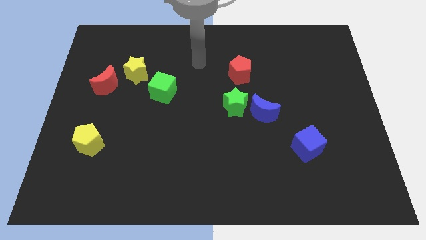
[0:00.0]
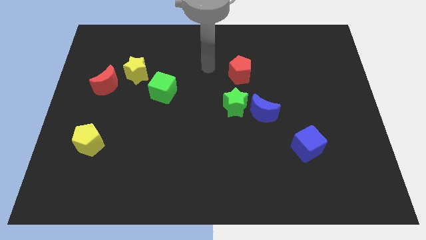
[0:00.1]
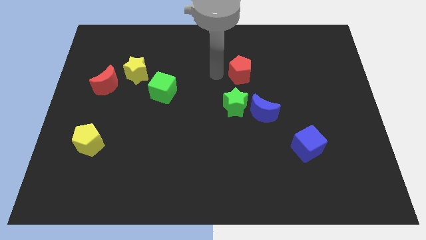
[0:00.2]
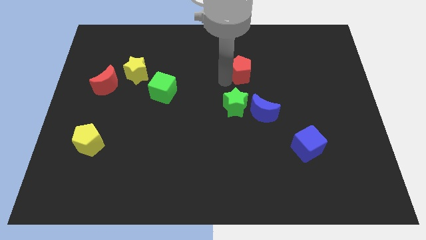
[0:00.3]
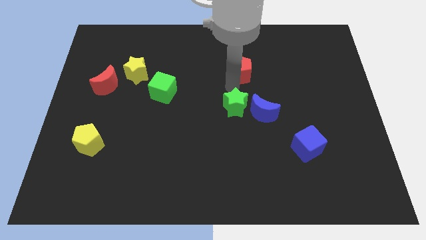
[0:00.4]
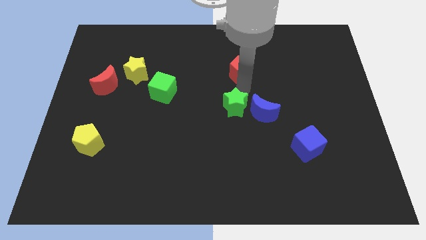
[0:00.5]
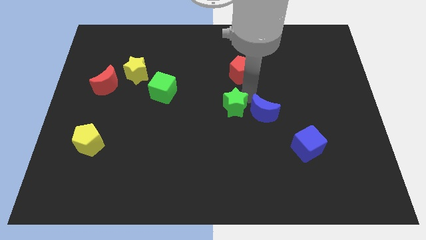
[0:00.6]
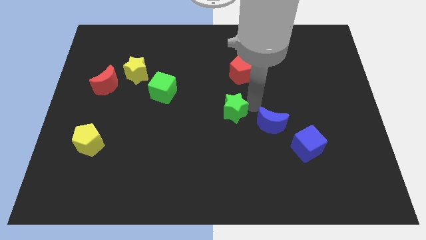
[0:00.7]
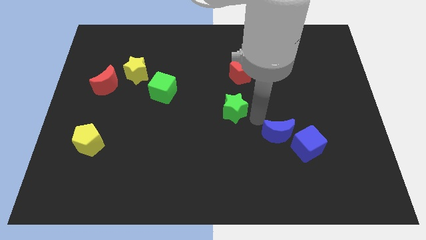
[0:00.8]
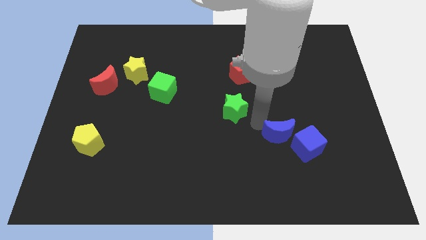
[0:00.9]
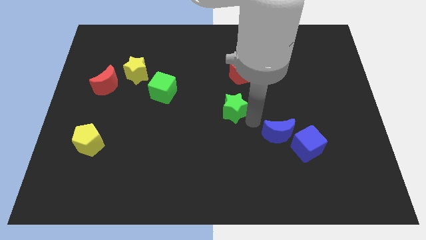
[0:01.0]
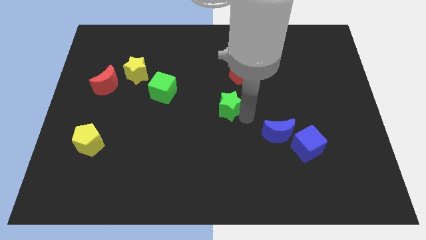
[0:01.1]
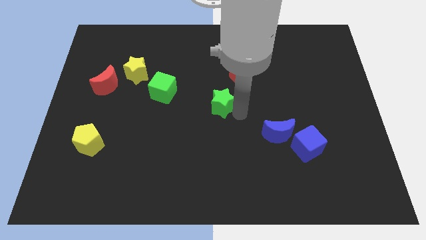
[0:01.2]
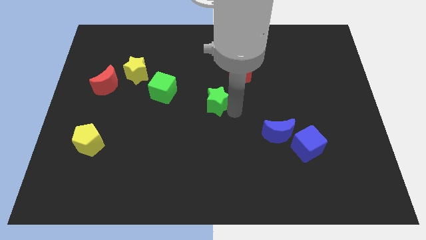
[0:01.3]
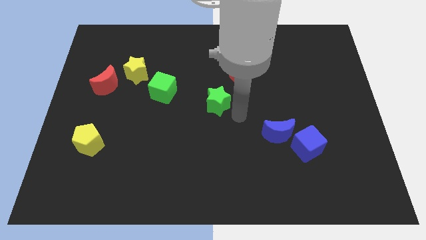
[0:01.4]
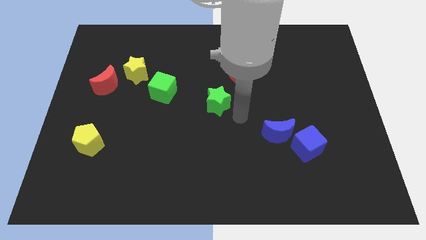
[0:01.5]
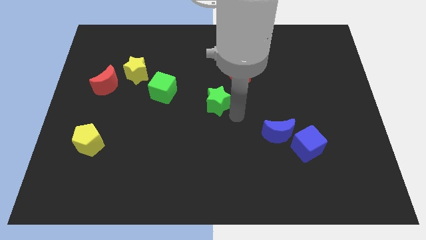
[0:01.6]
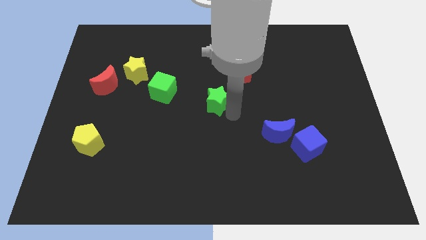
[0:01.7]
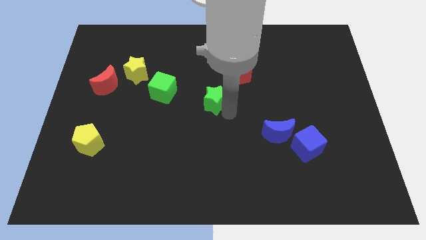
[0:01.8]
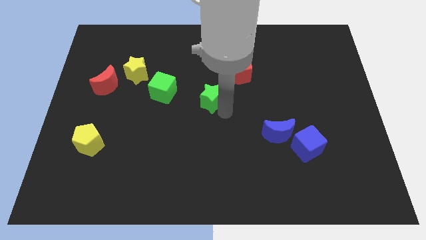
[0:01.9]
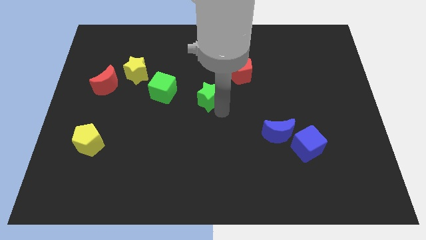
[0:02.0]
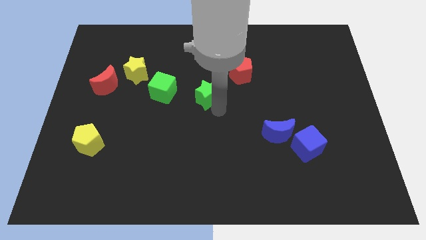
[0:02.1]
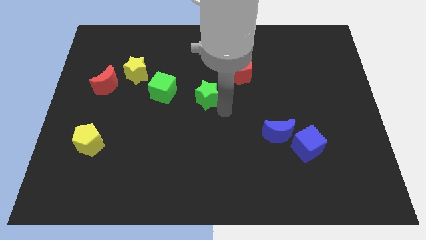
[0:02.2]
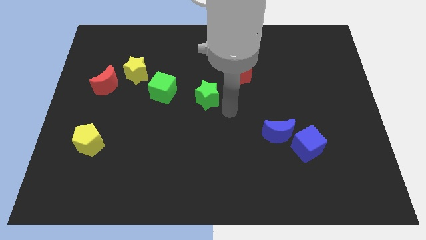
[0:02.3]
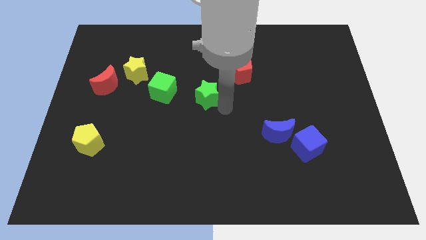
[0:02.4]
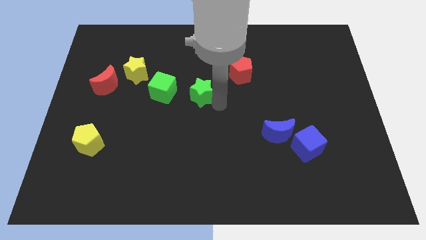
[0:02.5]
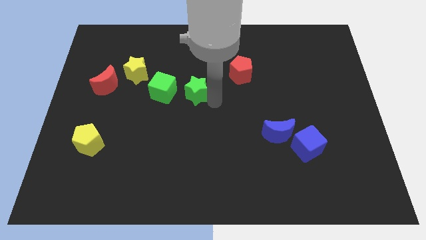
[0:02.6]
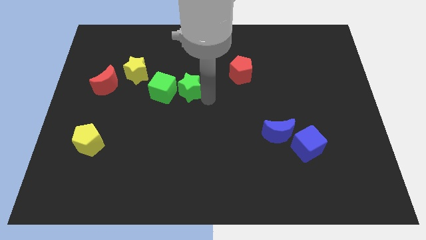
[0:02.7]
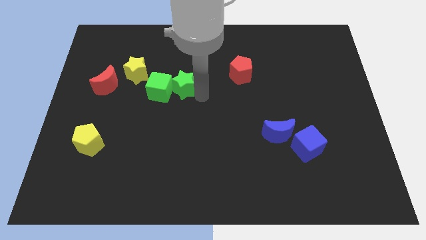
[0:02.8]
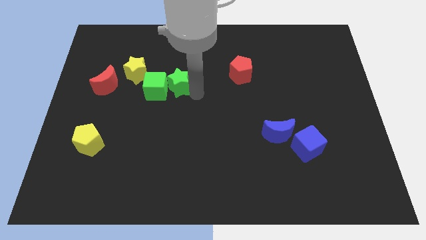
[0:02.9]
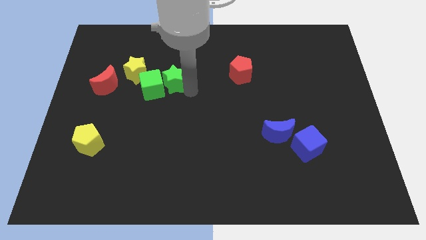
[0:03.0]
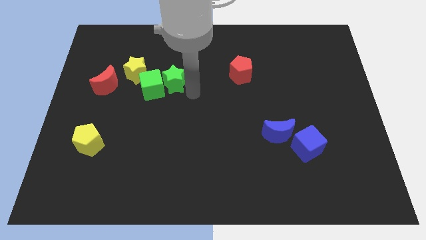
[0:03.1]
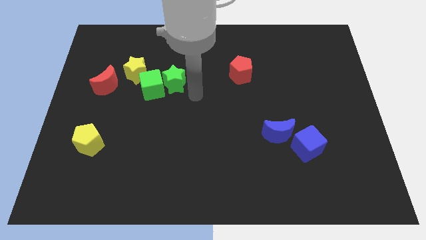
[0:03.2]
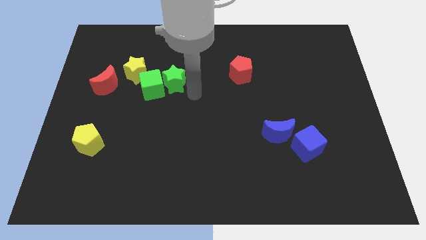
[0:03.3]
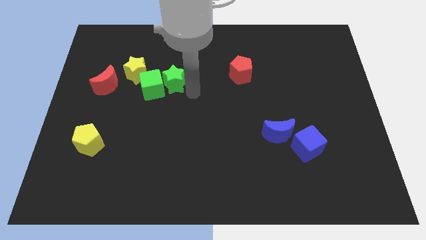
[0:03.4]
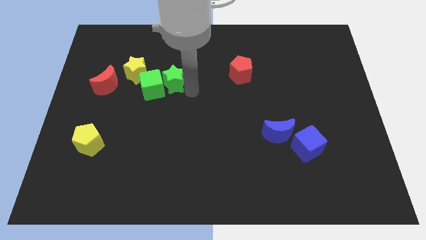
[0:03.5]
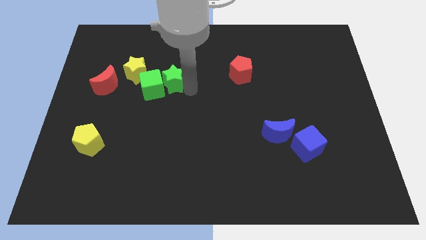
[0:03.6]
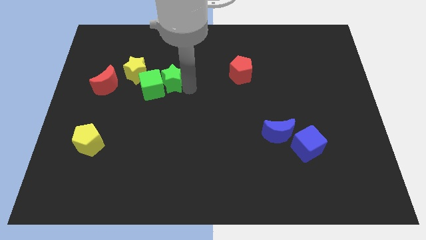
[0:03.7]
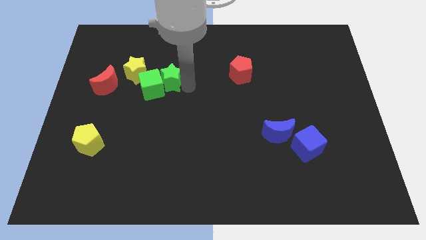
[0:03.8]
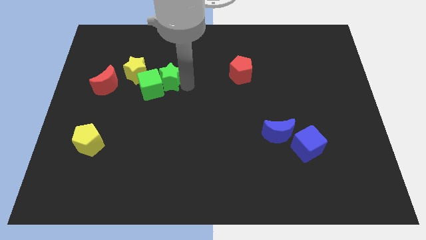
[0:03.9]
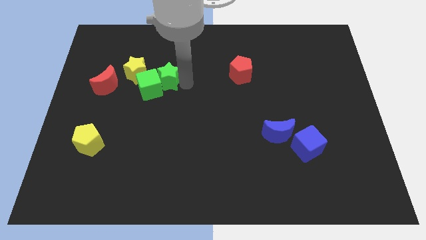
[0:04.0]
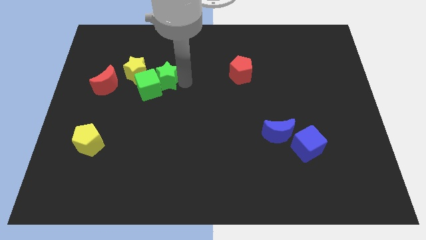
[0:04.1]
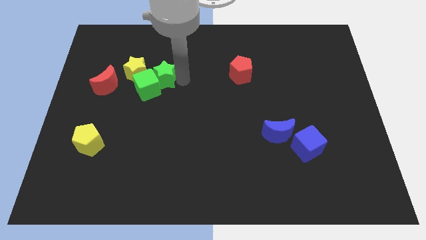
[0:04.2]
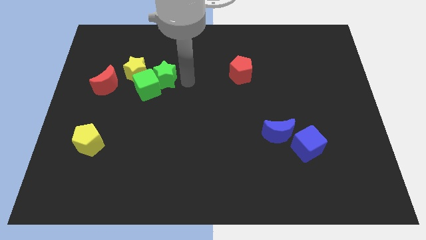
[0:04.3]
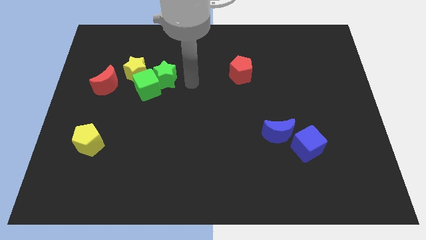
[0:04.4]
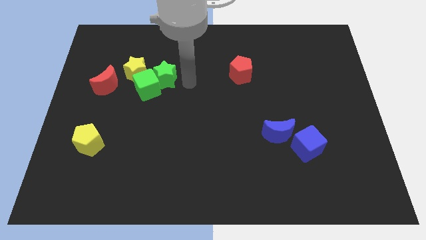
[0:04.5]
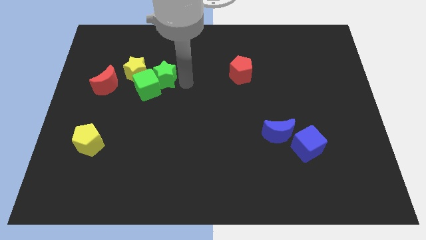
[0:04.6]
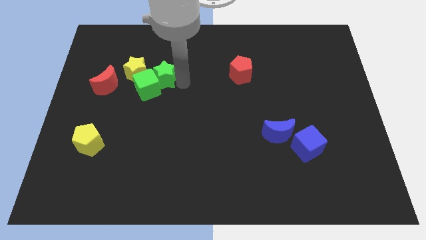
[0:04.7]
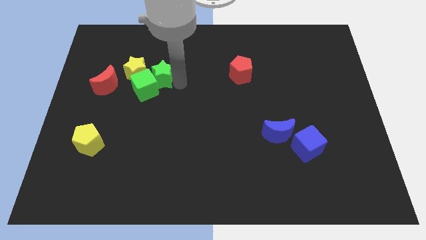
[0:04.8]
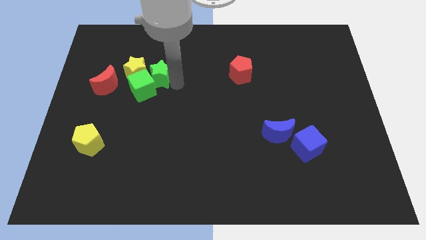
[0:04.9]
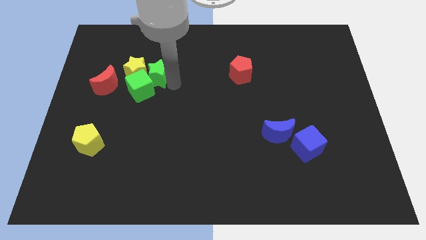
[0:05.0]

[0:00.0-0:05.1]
push the green star next to the yellow star

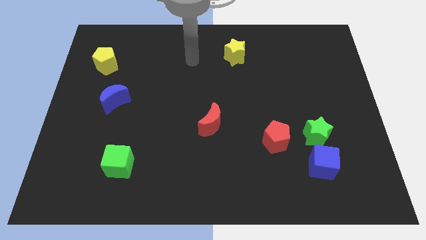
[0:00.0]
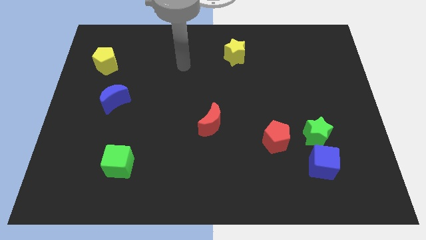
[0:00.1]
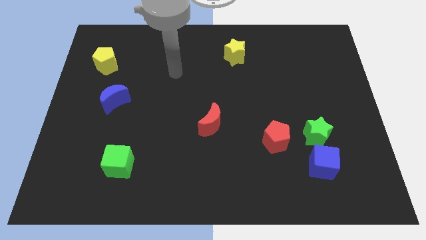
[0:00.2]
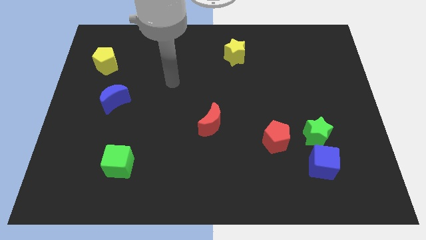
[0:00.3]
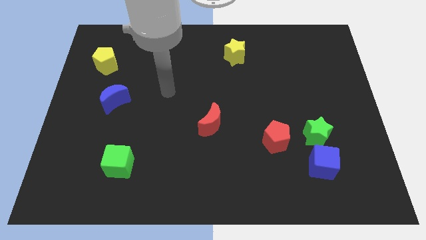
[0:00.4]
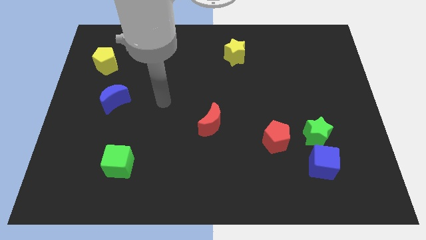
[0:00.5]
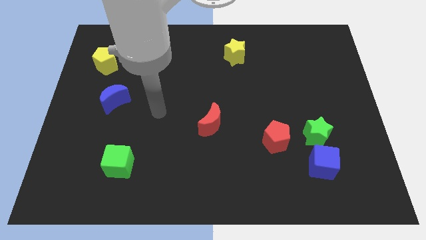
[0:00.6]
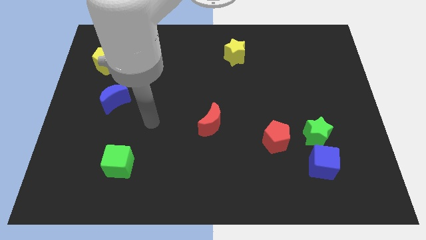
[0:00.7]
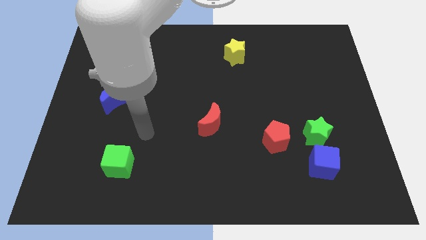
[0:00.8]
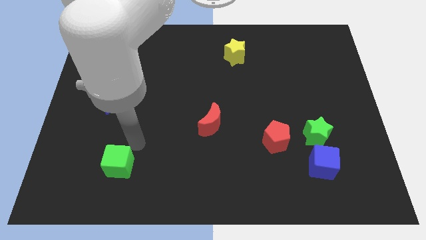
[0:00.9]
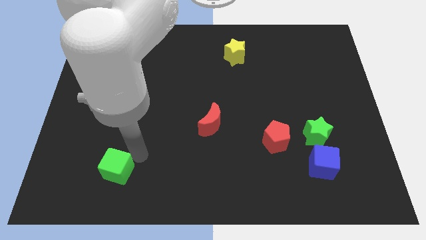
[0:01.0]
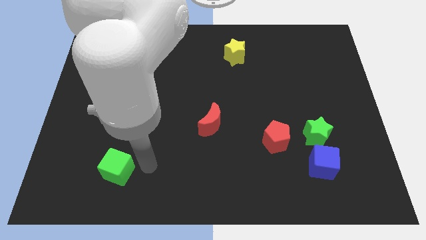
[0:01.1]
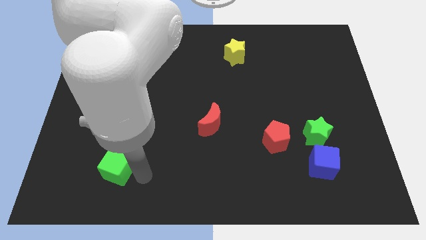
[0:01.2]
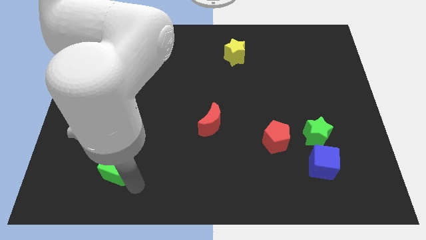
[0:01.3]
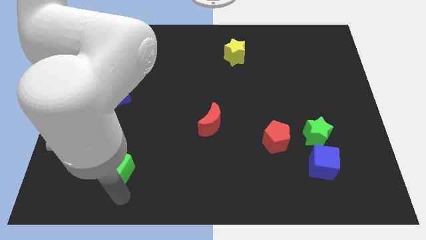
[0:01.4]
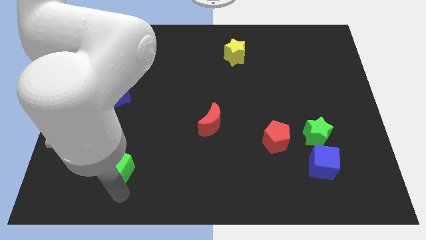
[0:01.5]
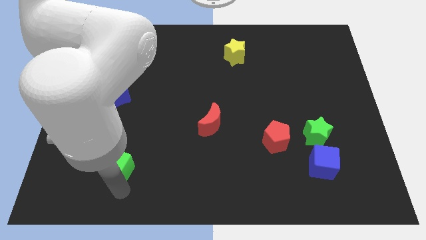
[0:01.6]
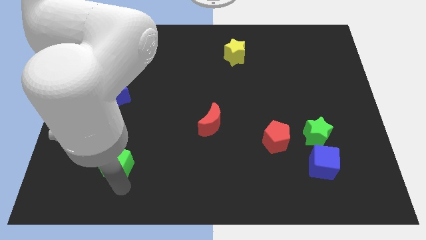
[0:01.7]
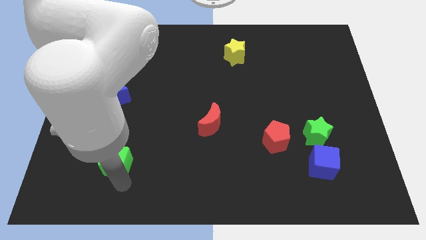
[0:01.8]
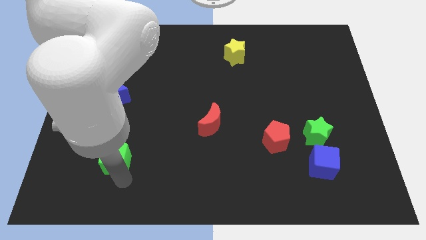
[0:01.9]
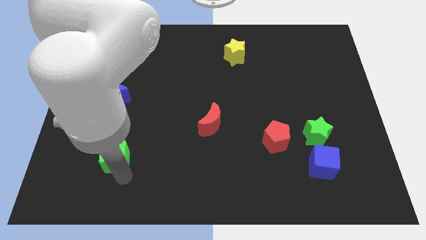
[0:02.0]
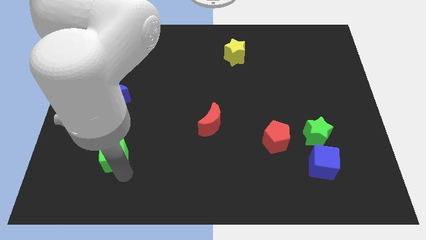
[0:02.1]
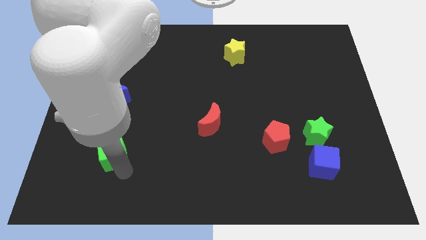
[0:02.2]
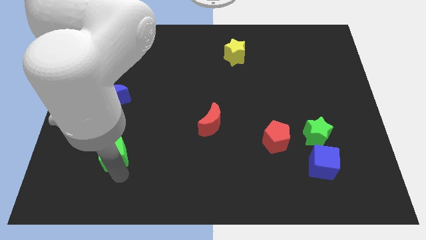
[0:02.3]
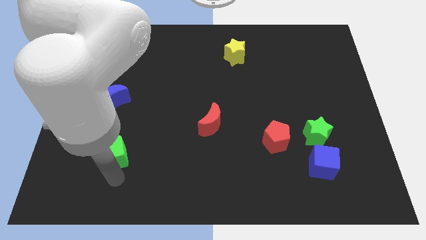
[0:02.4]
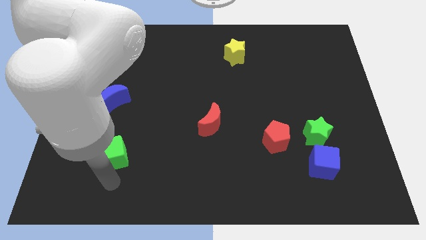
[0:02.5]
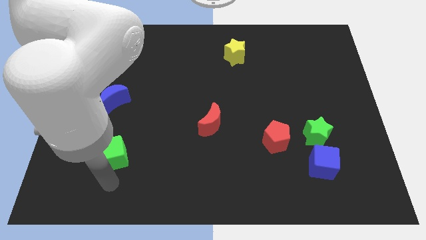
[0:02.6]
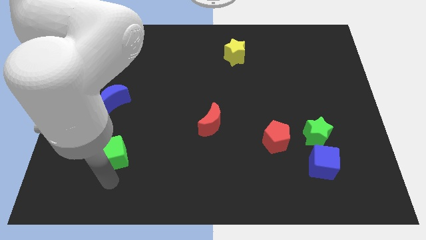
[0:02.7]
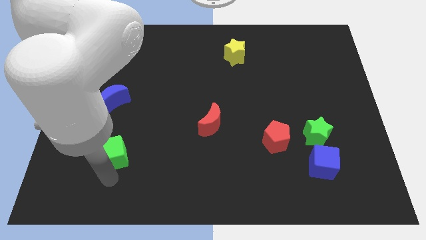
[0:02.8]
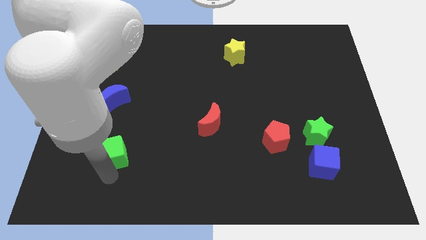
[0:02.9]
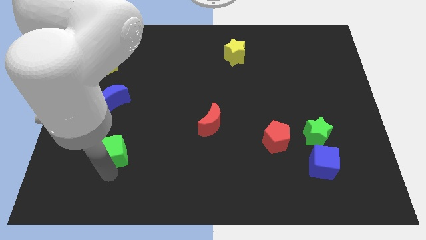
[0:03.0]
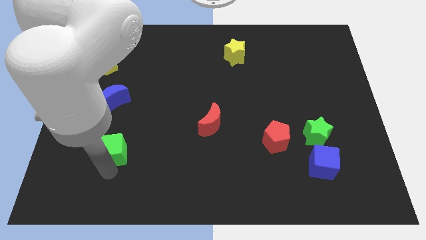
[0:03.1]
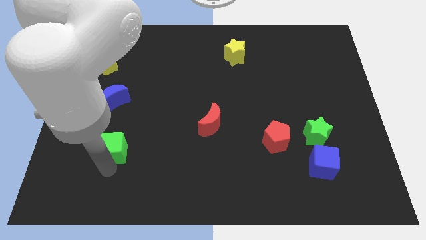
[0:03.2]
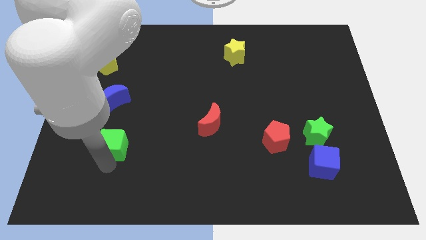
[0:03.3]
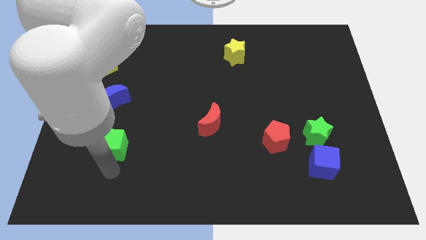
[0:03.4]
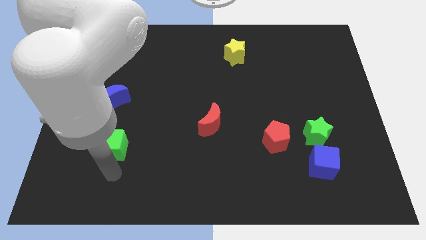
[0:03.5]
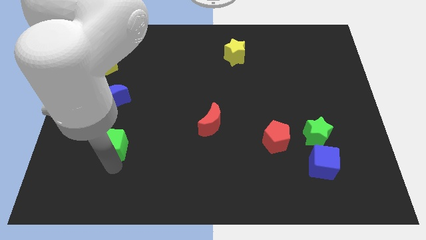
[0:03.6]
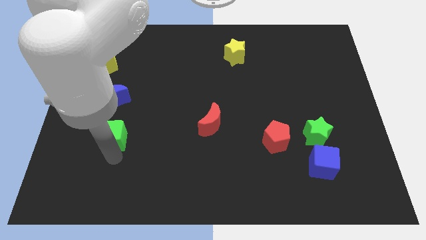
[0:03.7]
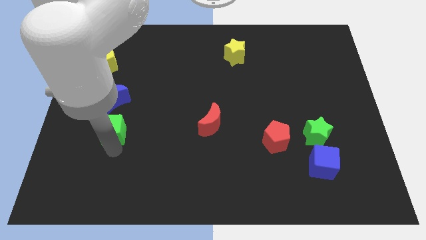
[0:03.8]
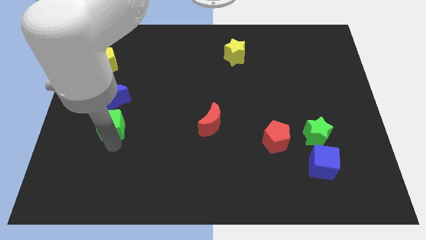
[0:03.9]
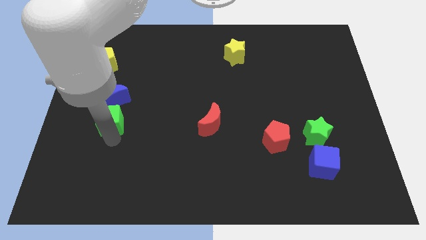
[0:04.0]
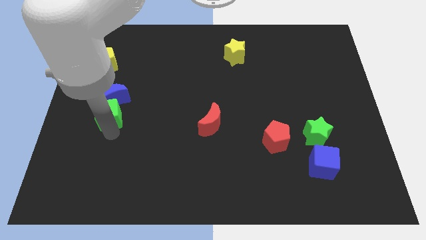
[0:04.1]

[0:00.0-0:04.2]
move the green cube close to the blue moon
